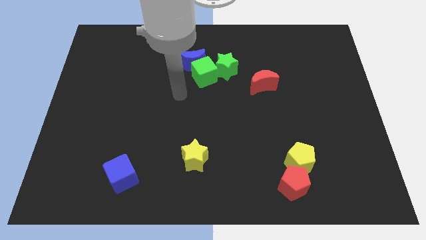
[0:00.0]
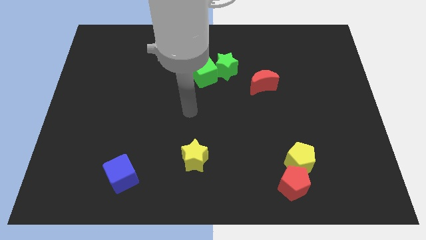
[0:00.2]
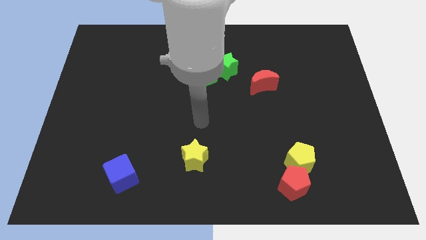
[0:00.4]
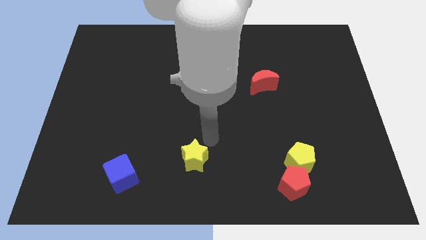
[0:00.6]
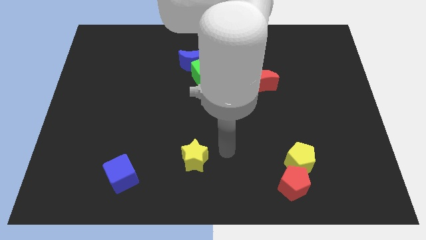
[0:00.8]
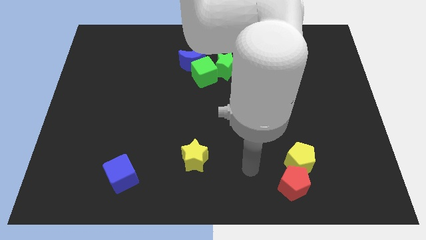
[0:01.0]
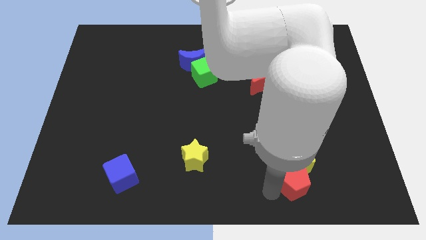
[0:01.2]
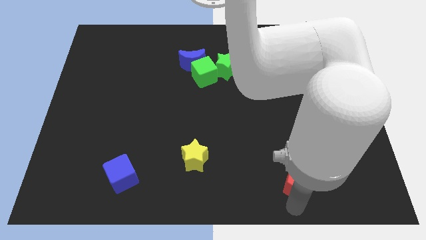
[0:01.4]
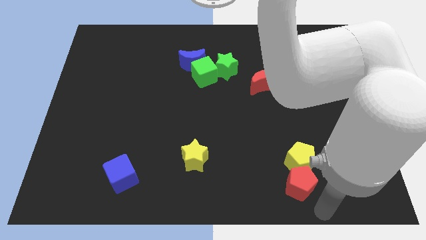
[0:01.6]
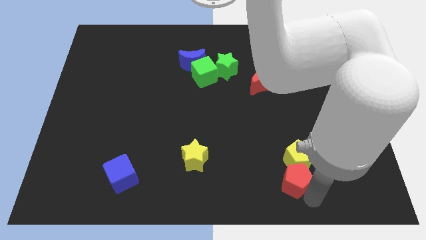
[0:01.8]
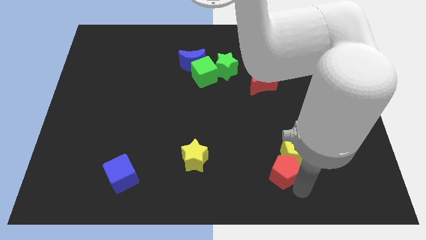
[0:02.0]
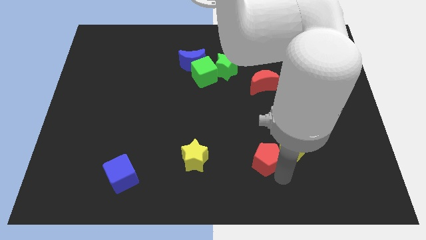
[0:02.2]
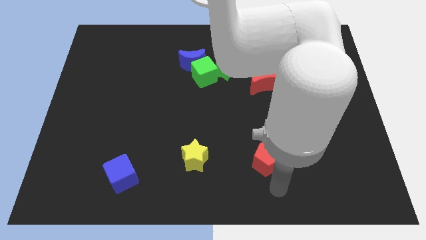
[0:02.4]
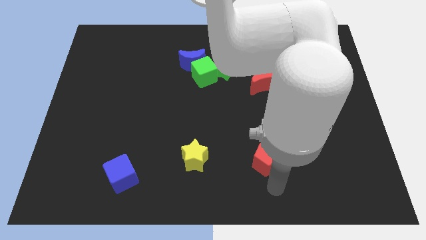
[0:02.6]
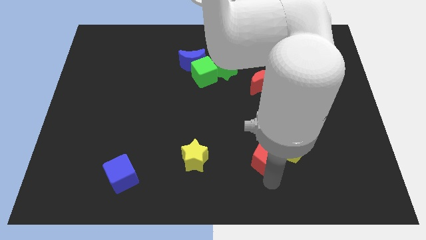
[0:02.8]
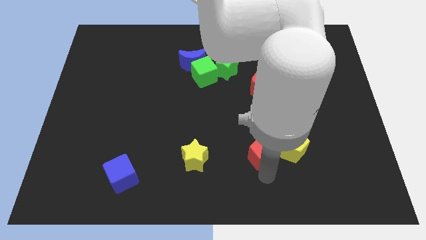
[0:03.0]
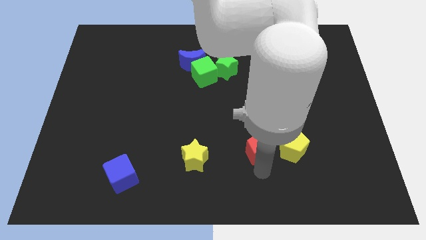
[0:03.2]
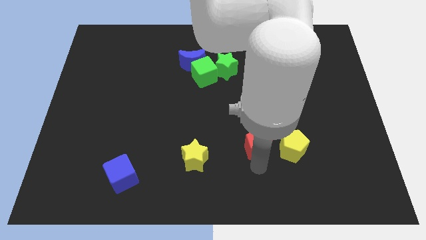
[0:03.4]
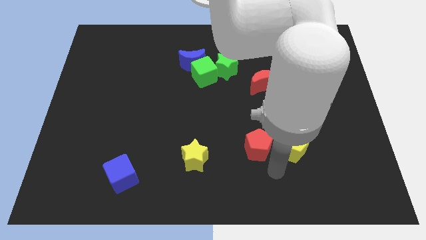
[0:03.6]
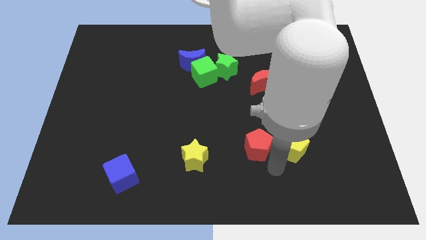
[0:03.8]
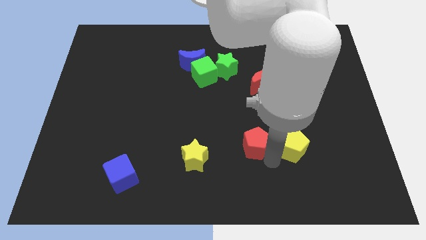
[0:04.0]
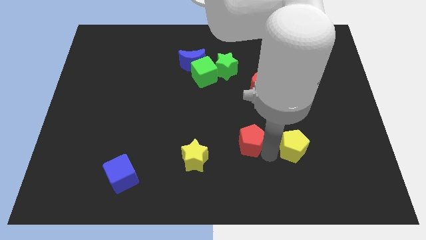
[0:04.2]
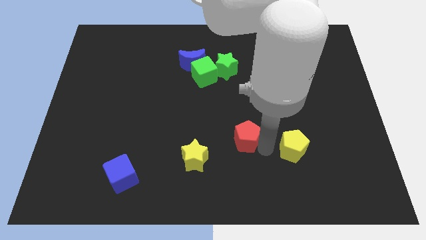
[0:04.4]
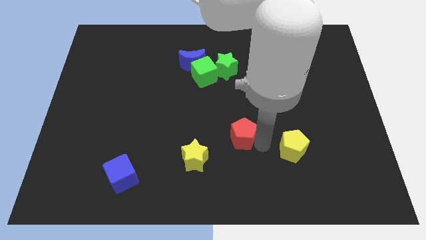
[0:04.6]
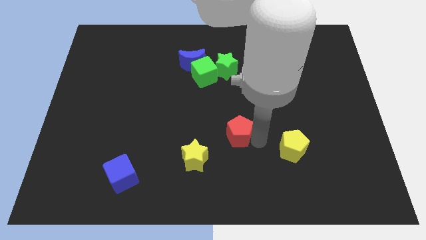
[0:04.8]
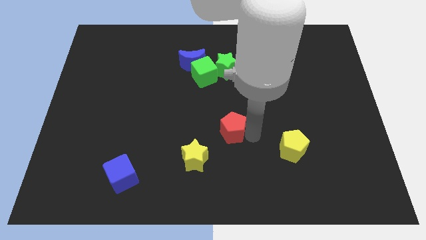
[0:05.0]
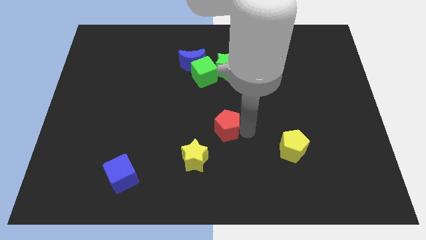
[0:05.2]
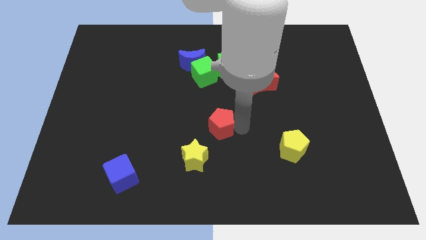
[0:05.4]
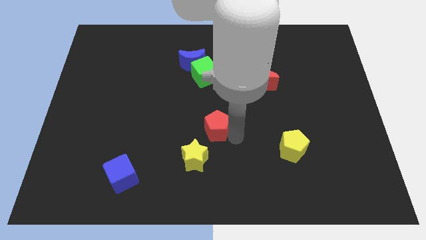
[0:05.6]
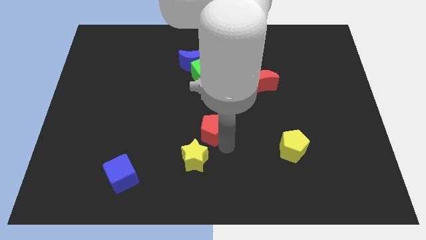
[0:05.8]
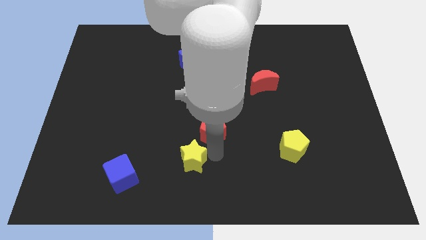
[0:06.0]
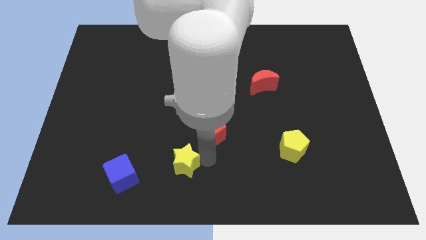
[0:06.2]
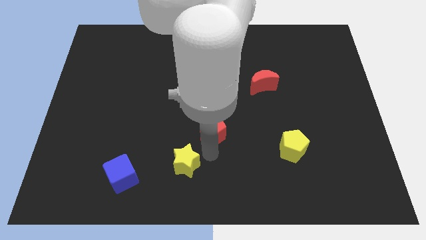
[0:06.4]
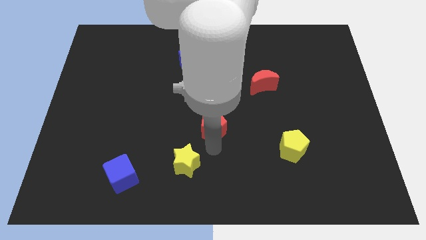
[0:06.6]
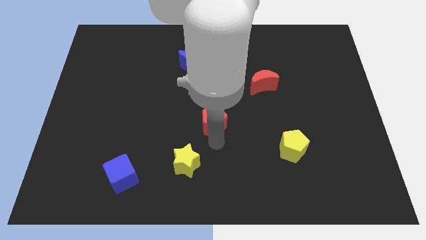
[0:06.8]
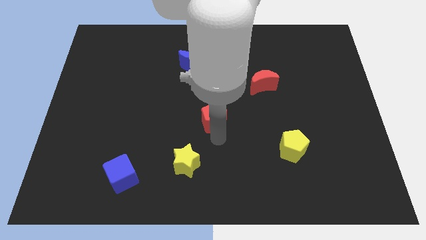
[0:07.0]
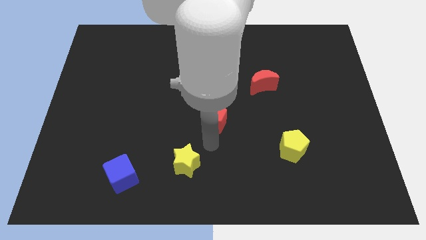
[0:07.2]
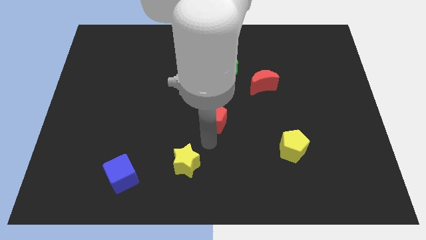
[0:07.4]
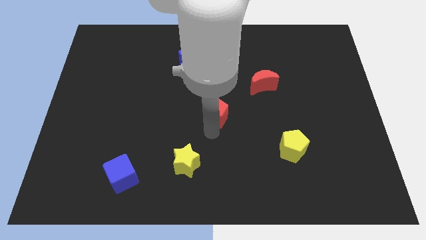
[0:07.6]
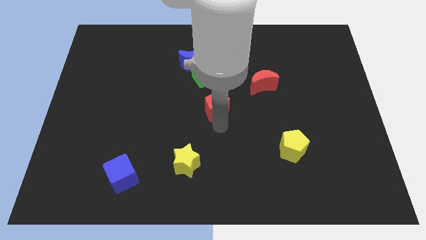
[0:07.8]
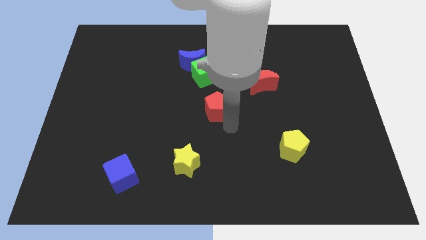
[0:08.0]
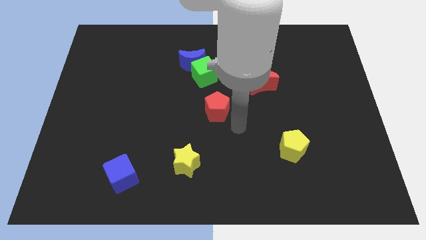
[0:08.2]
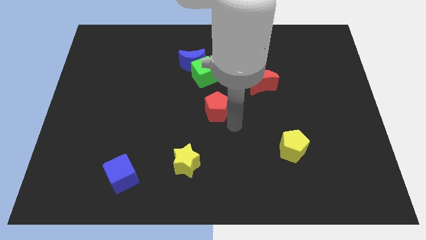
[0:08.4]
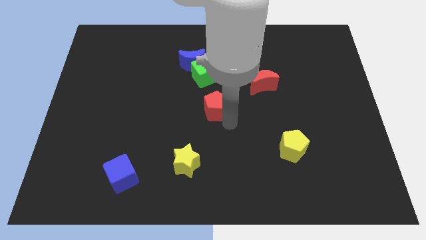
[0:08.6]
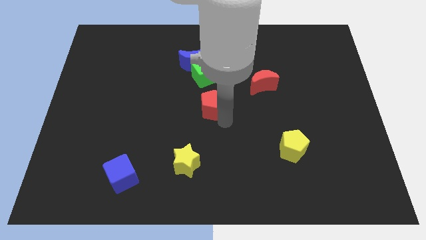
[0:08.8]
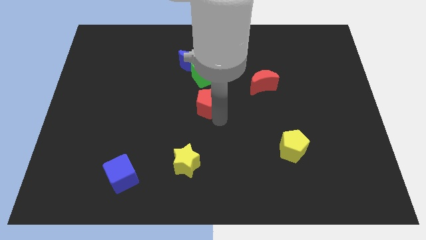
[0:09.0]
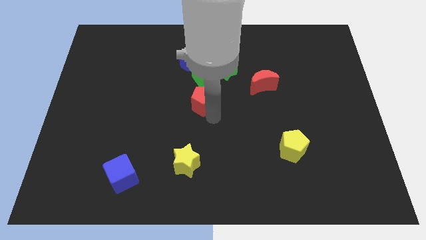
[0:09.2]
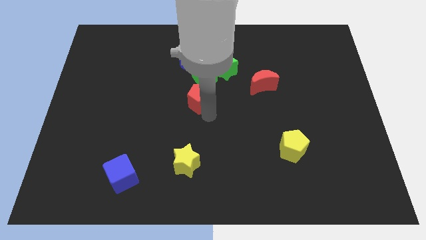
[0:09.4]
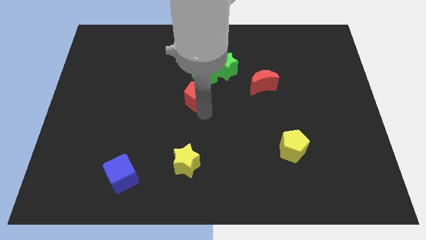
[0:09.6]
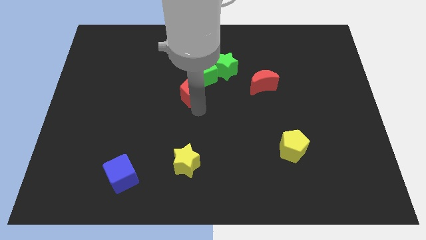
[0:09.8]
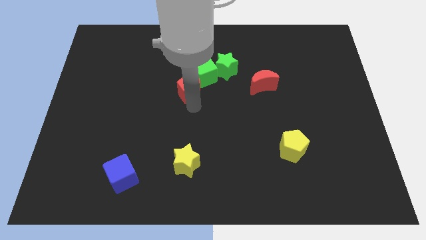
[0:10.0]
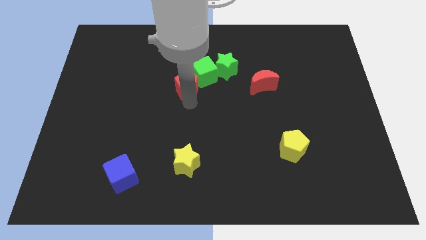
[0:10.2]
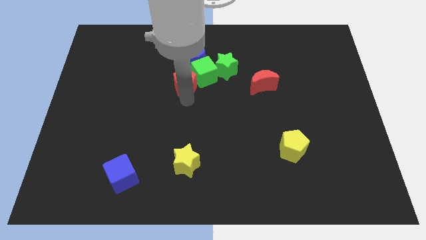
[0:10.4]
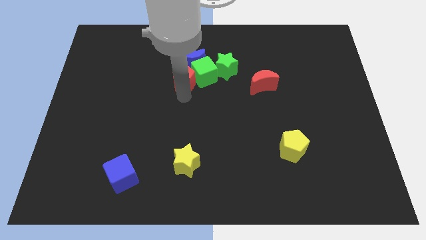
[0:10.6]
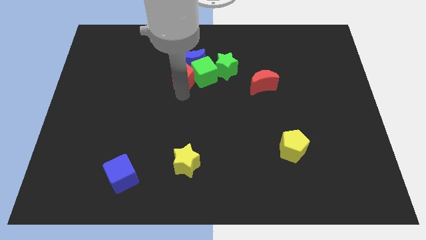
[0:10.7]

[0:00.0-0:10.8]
put the red pentagon next to the blue moon

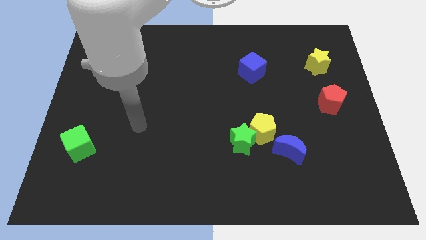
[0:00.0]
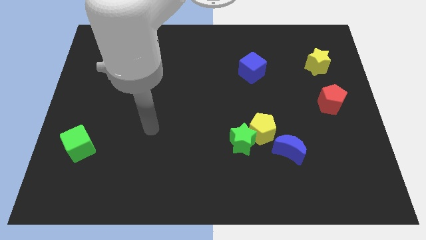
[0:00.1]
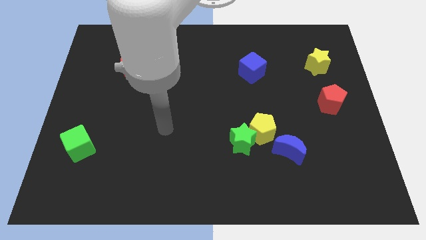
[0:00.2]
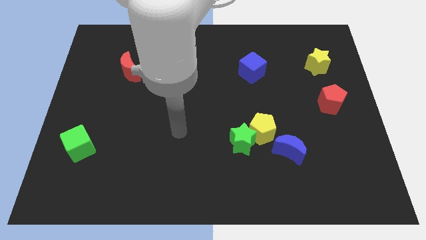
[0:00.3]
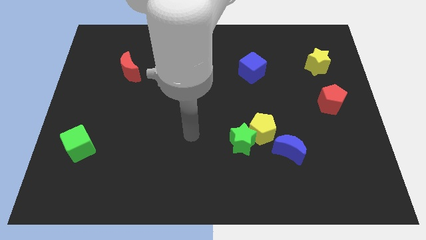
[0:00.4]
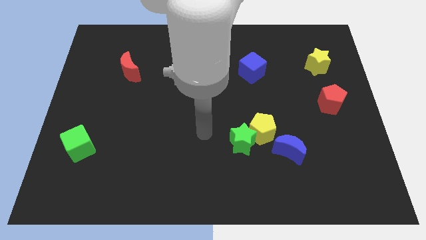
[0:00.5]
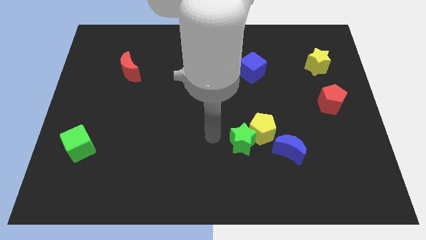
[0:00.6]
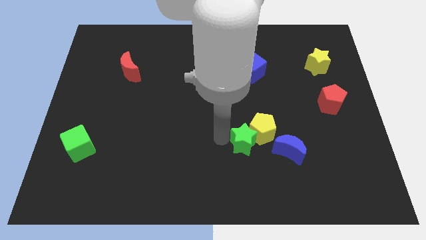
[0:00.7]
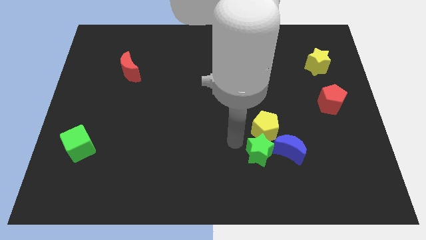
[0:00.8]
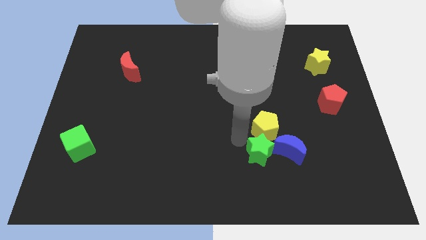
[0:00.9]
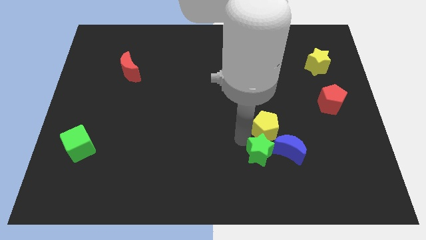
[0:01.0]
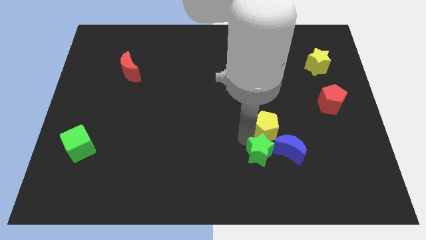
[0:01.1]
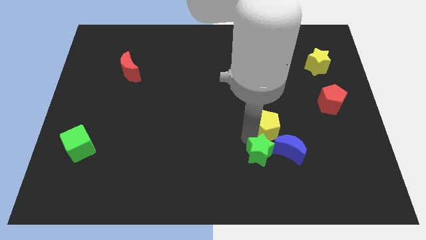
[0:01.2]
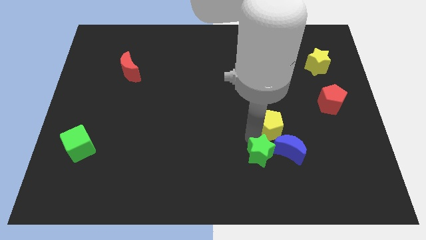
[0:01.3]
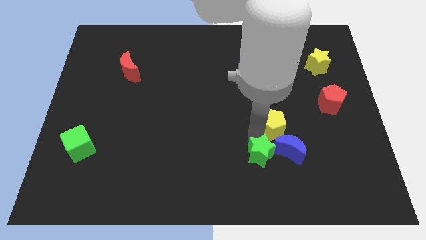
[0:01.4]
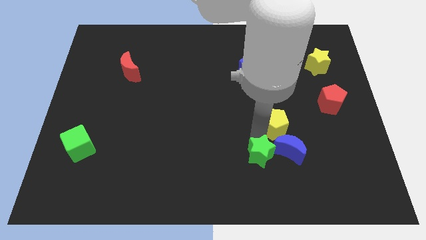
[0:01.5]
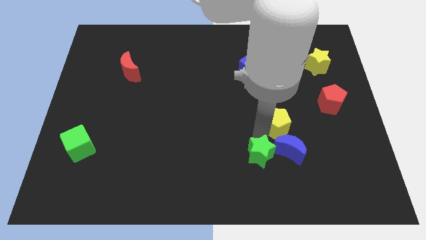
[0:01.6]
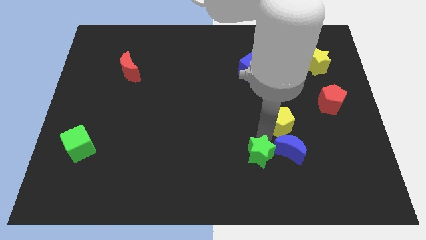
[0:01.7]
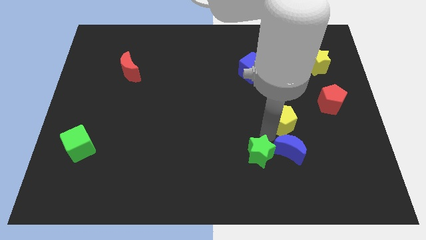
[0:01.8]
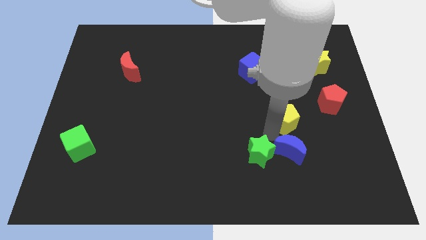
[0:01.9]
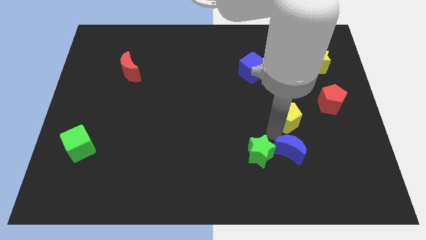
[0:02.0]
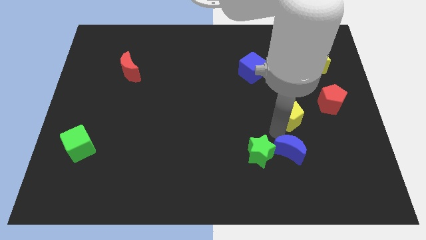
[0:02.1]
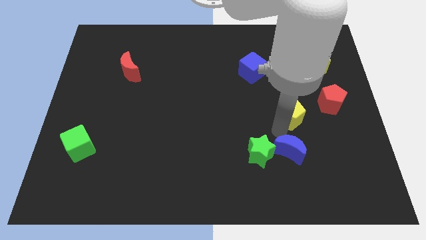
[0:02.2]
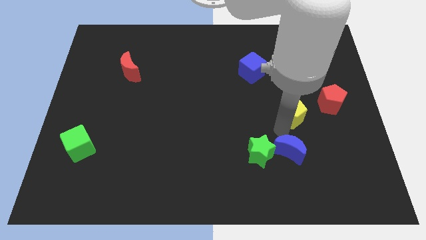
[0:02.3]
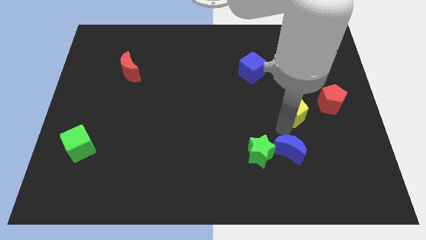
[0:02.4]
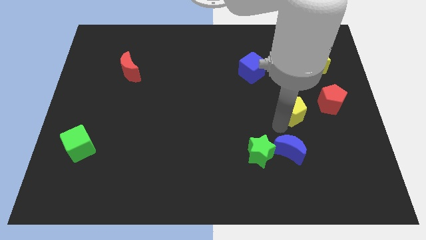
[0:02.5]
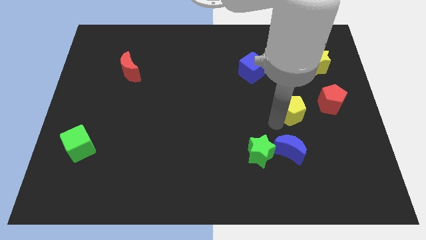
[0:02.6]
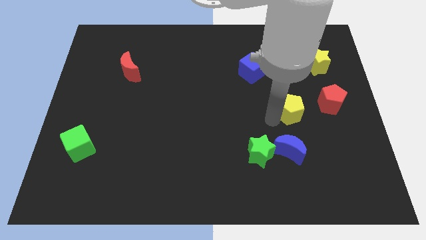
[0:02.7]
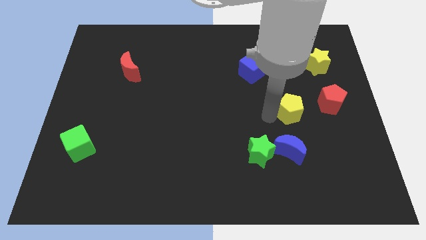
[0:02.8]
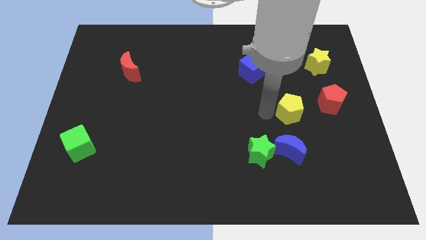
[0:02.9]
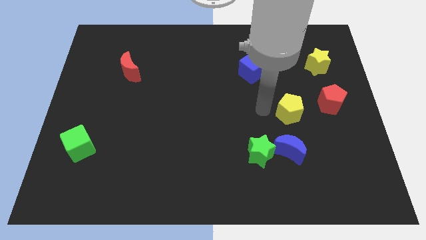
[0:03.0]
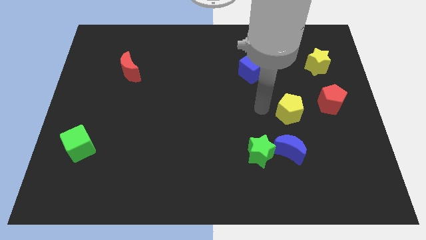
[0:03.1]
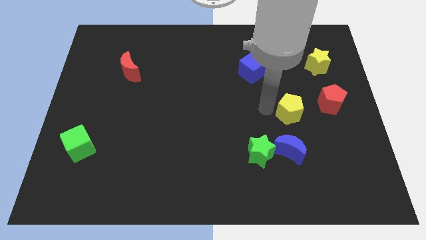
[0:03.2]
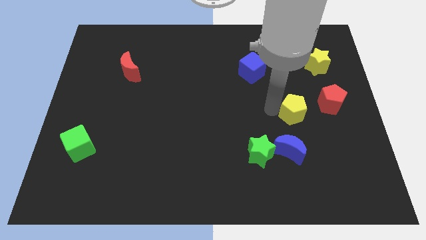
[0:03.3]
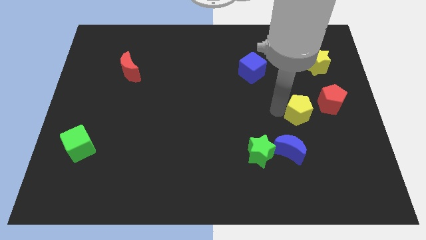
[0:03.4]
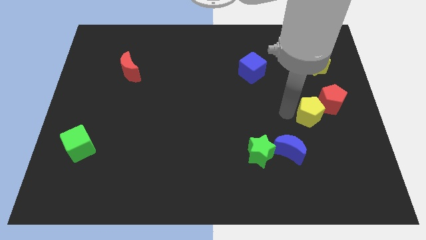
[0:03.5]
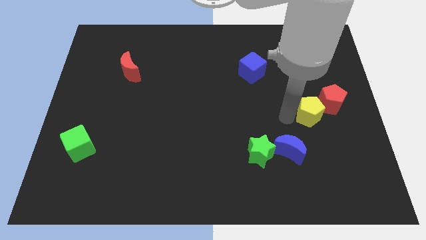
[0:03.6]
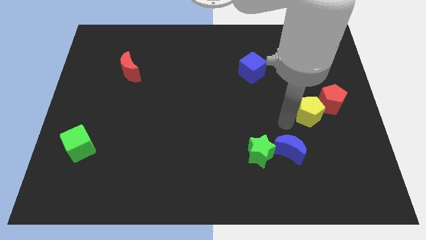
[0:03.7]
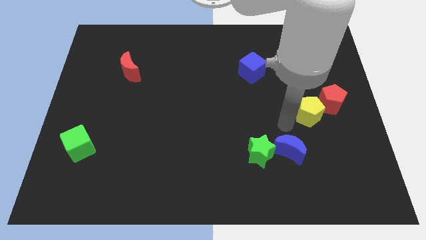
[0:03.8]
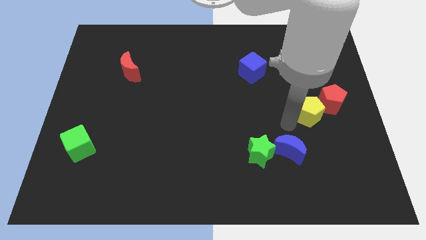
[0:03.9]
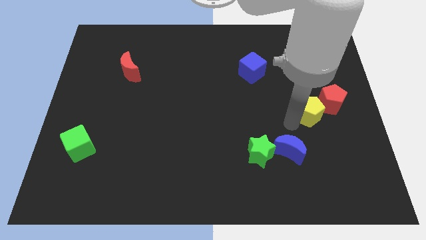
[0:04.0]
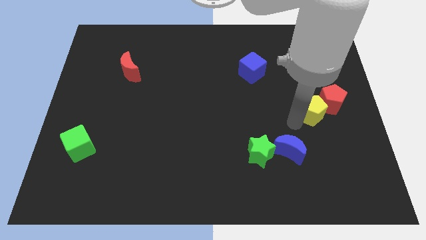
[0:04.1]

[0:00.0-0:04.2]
push the yellow pentagon towards the red pentagon
